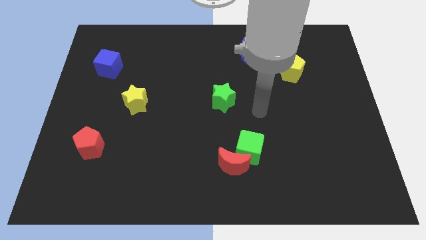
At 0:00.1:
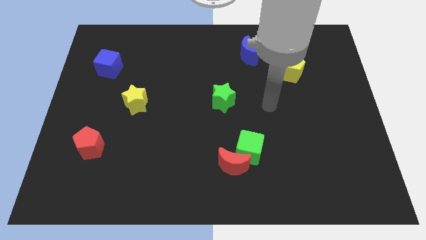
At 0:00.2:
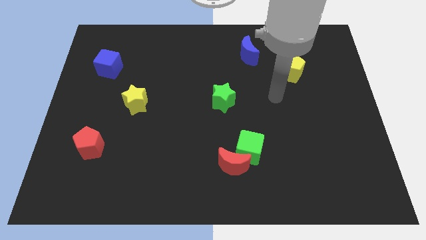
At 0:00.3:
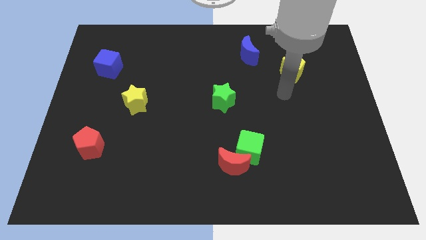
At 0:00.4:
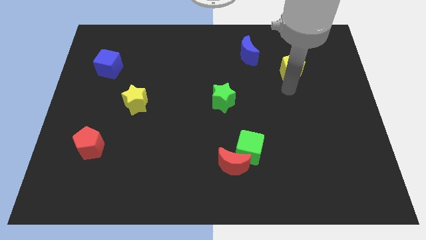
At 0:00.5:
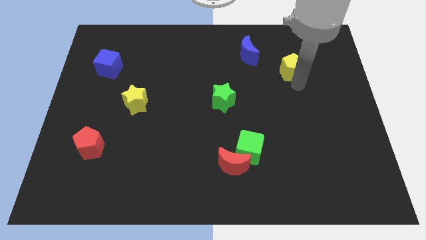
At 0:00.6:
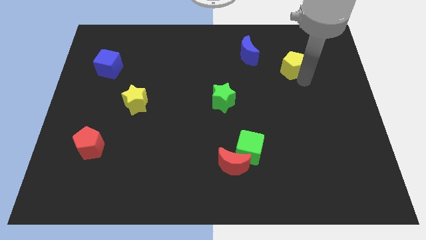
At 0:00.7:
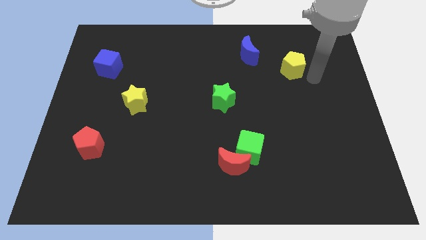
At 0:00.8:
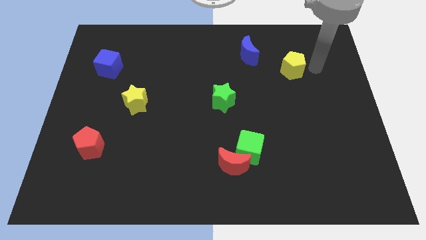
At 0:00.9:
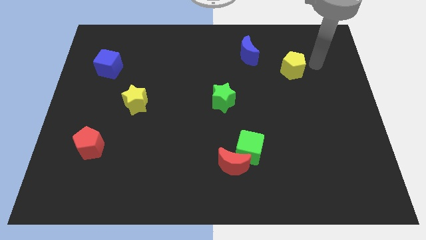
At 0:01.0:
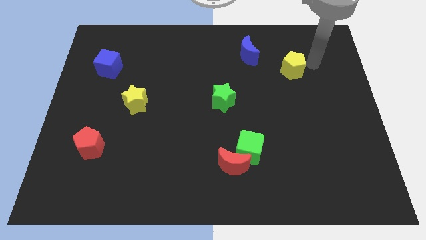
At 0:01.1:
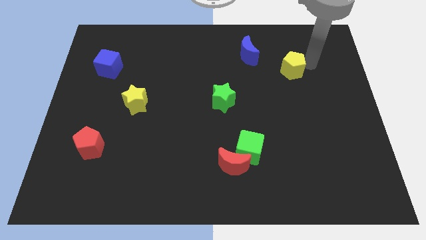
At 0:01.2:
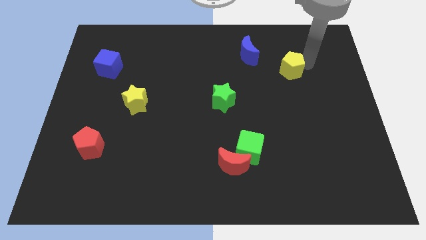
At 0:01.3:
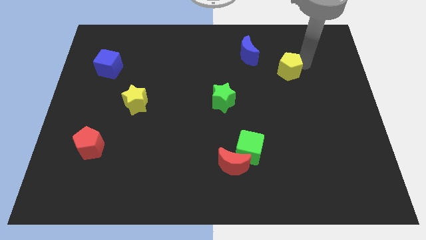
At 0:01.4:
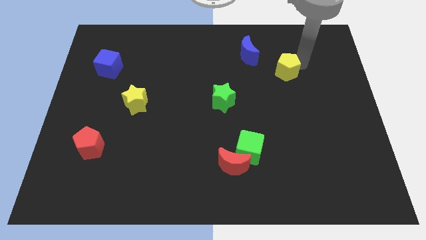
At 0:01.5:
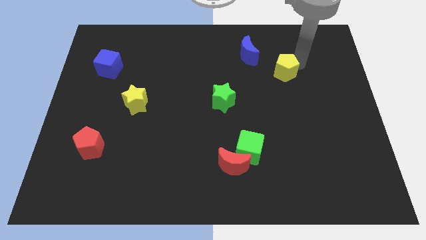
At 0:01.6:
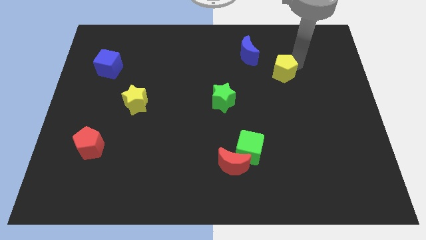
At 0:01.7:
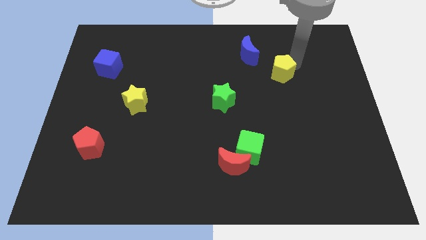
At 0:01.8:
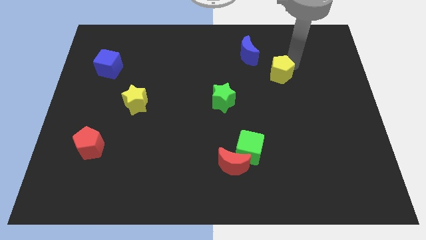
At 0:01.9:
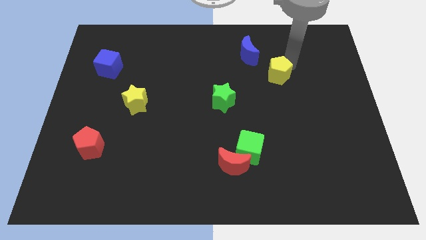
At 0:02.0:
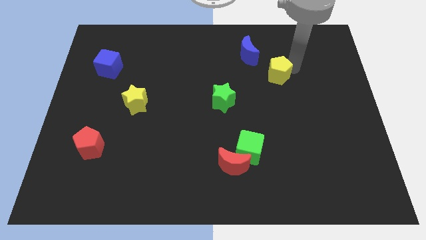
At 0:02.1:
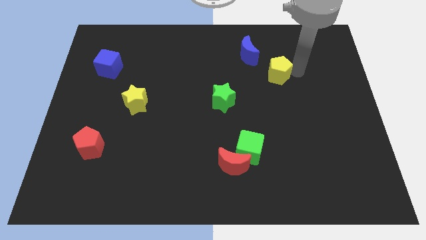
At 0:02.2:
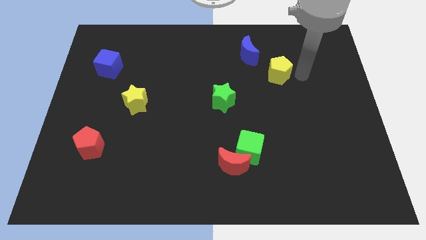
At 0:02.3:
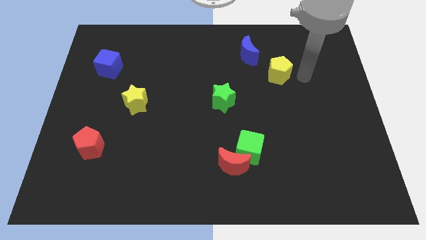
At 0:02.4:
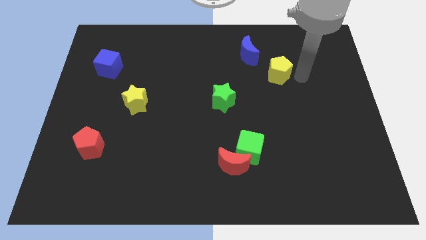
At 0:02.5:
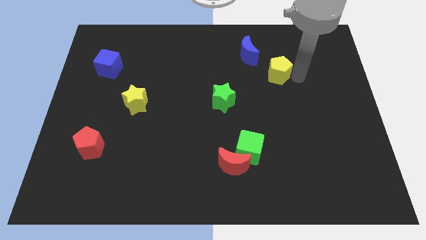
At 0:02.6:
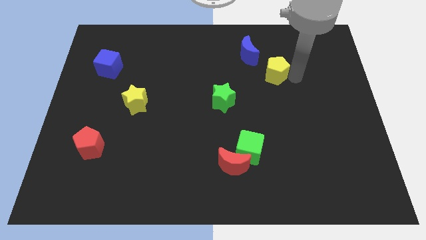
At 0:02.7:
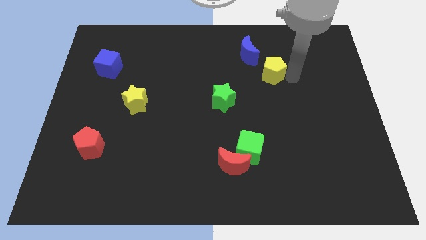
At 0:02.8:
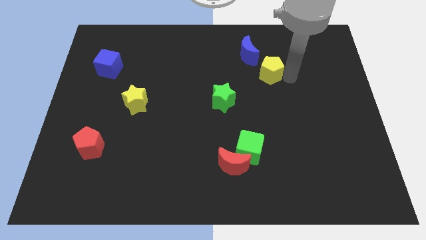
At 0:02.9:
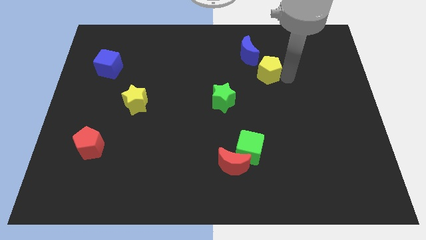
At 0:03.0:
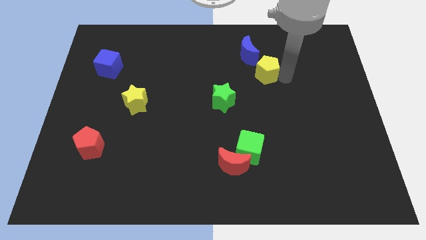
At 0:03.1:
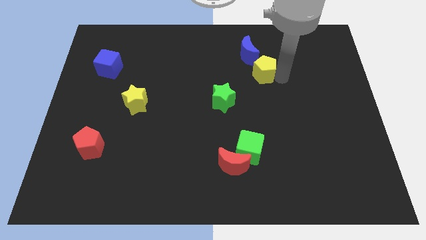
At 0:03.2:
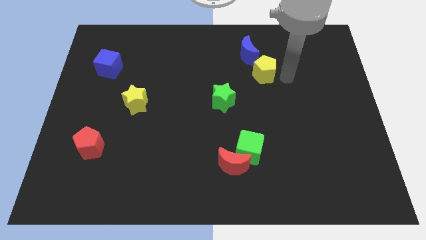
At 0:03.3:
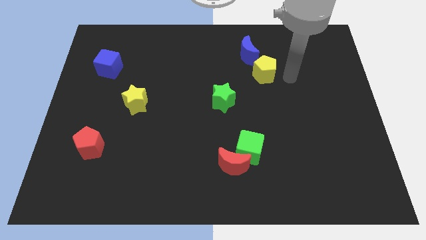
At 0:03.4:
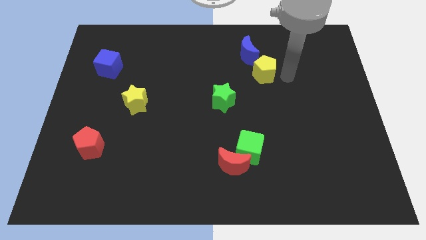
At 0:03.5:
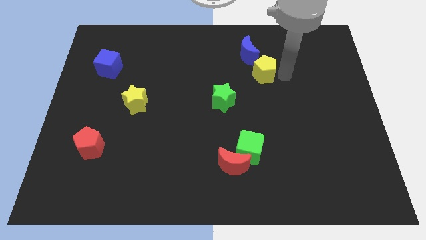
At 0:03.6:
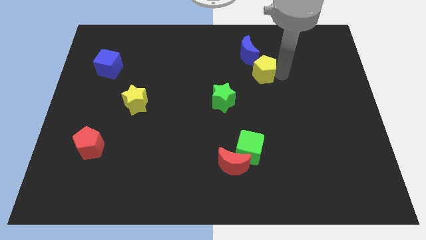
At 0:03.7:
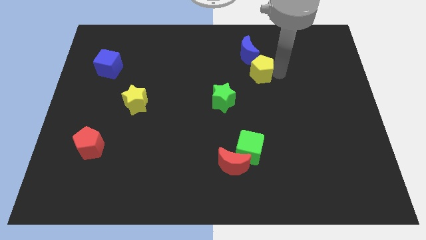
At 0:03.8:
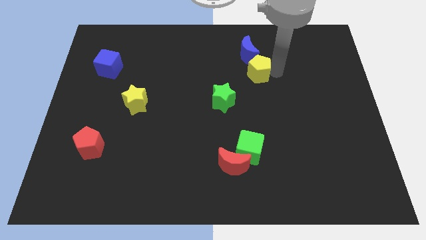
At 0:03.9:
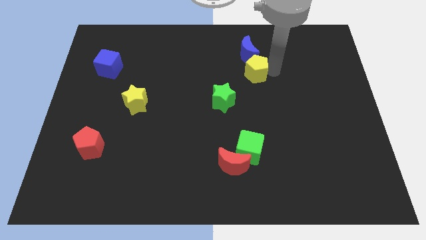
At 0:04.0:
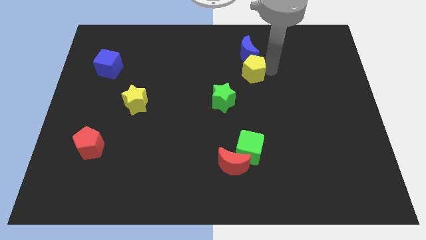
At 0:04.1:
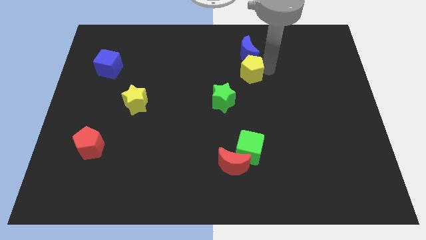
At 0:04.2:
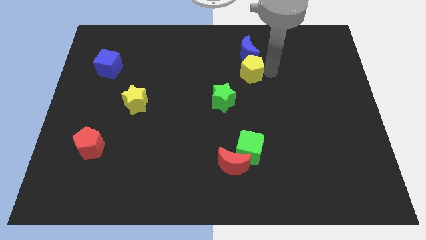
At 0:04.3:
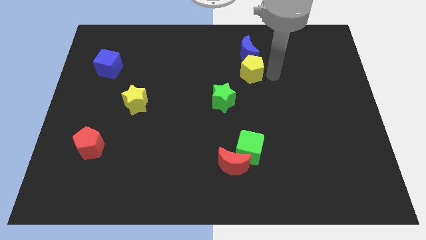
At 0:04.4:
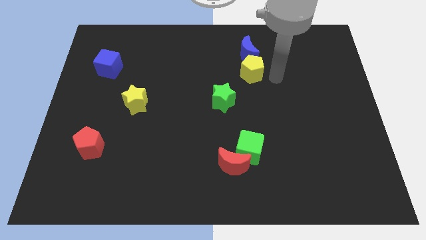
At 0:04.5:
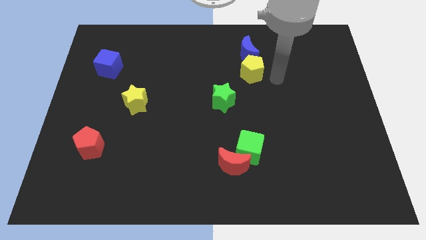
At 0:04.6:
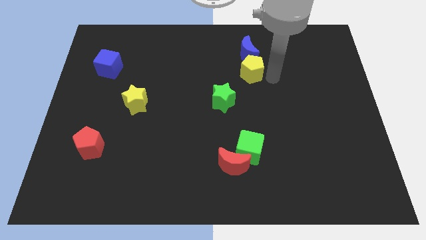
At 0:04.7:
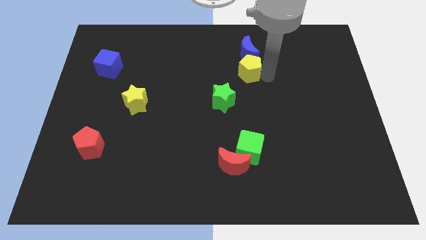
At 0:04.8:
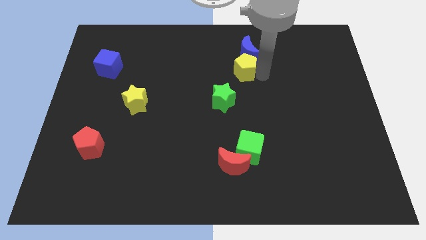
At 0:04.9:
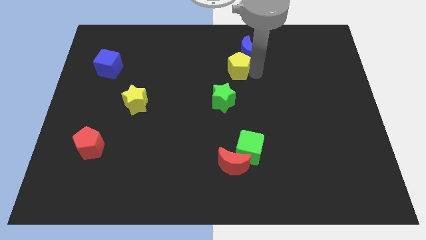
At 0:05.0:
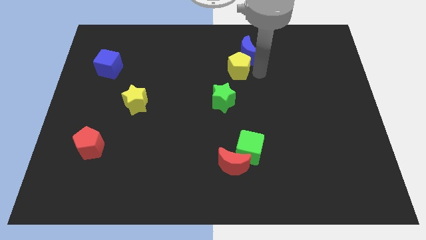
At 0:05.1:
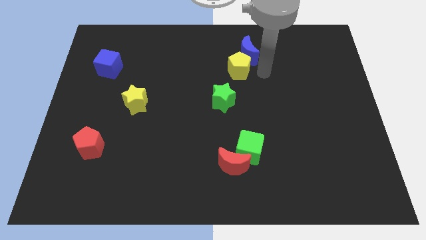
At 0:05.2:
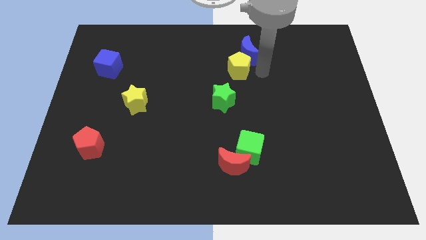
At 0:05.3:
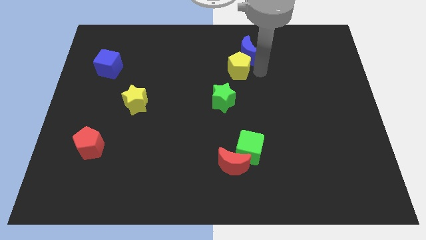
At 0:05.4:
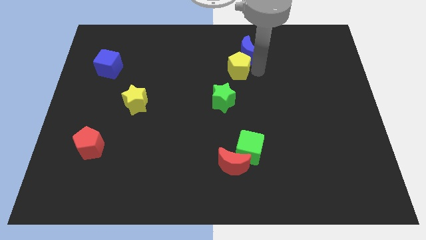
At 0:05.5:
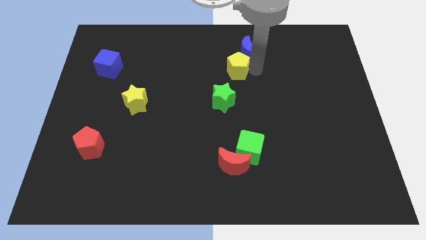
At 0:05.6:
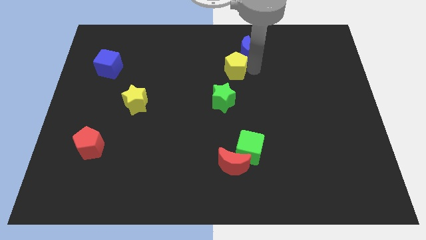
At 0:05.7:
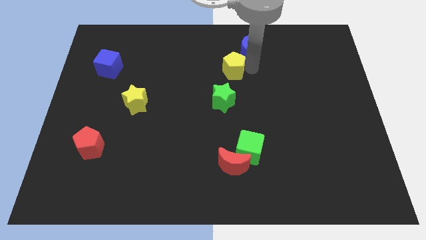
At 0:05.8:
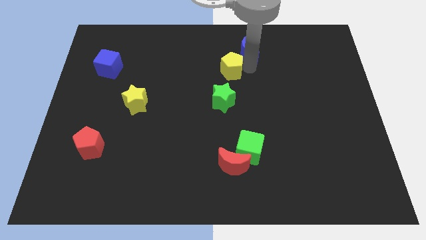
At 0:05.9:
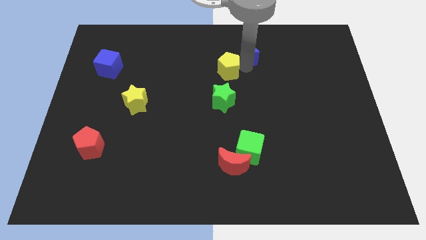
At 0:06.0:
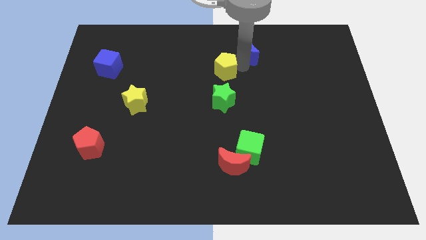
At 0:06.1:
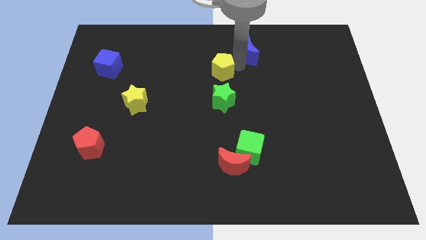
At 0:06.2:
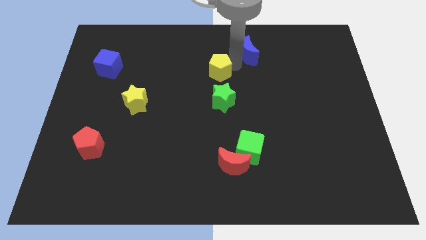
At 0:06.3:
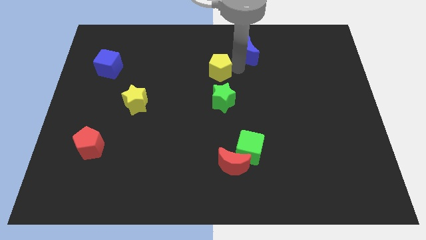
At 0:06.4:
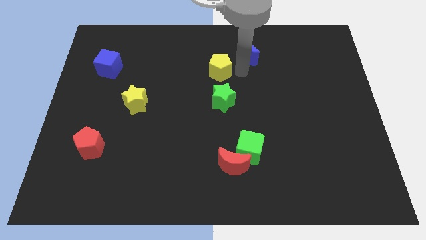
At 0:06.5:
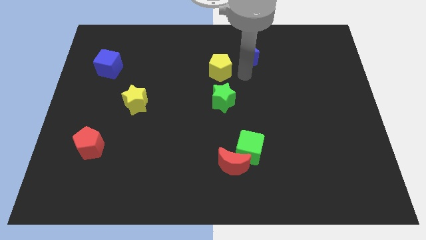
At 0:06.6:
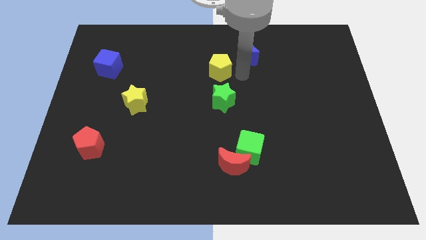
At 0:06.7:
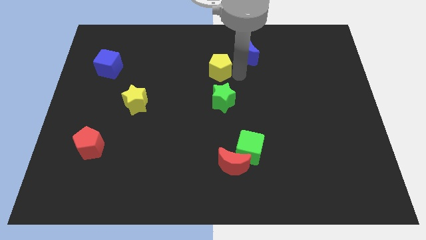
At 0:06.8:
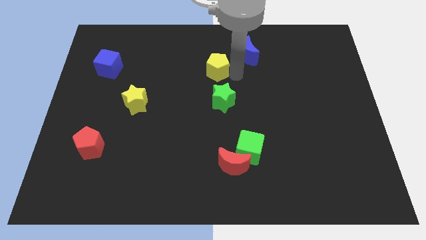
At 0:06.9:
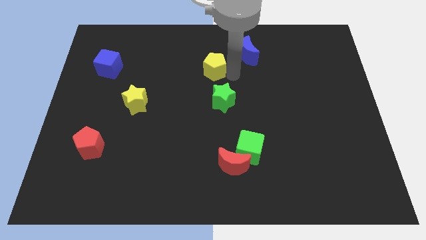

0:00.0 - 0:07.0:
slide the yellow pentagon left

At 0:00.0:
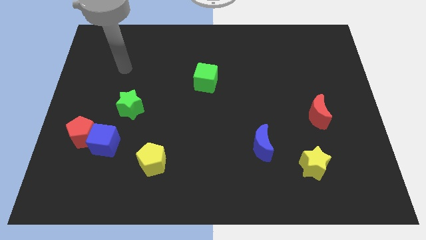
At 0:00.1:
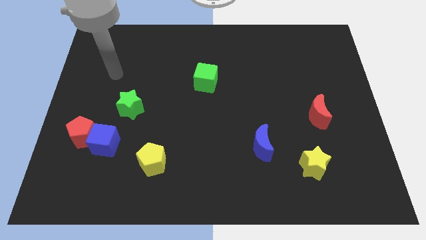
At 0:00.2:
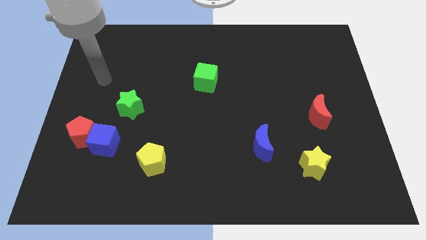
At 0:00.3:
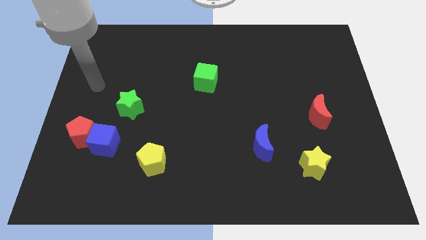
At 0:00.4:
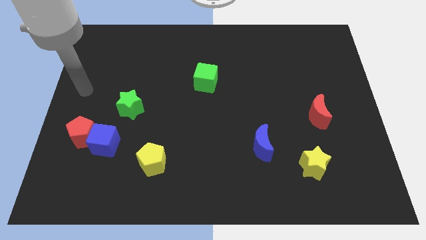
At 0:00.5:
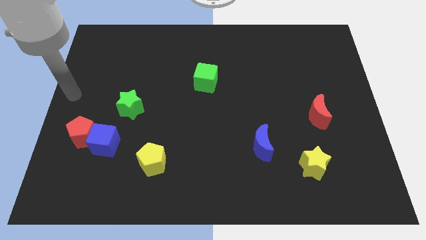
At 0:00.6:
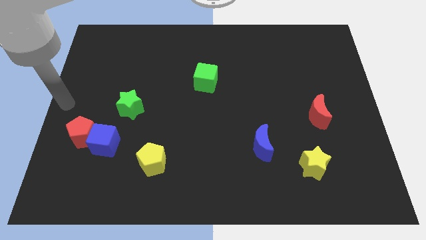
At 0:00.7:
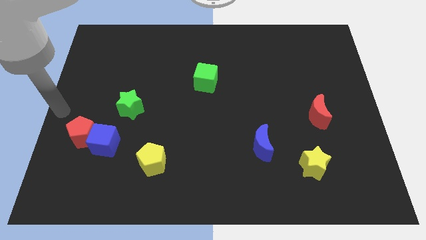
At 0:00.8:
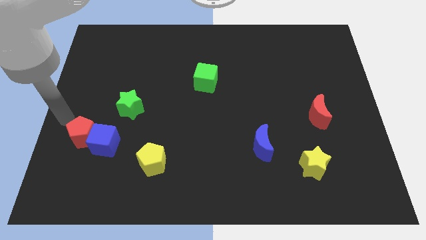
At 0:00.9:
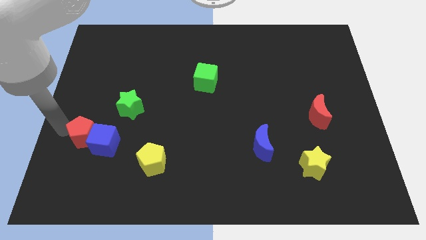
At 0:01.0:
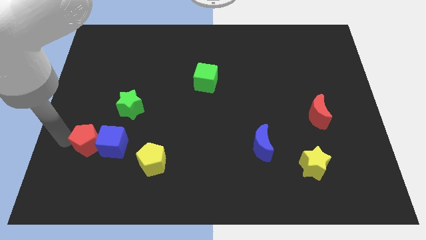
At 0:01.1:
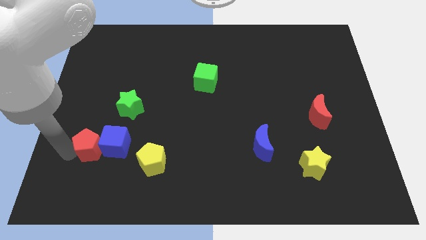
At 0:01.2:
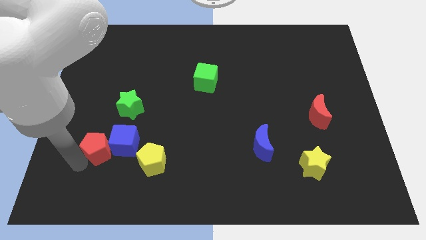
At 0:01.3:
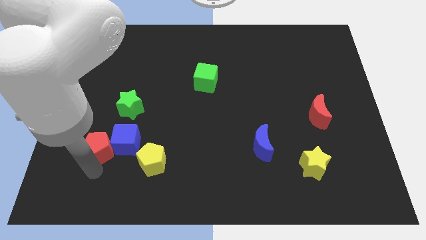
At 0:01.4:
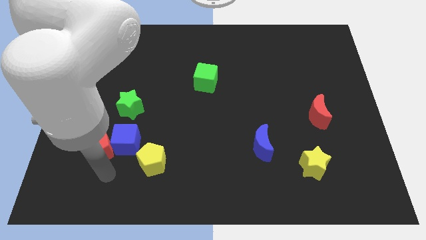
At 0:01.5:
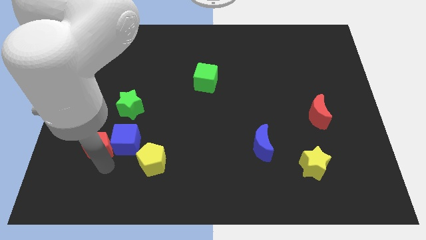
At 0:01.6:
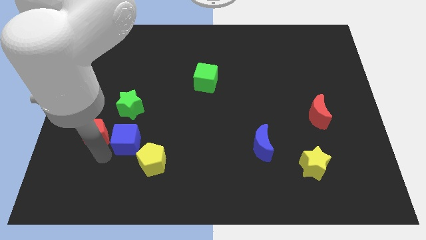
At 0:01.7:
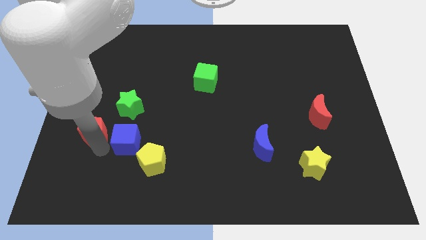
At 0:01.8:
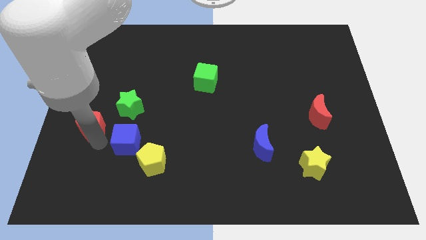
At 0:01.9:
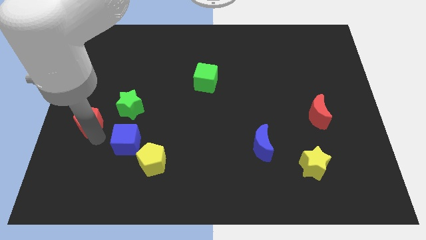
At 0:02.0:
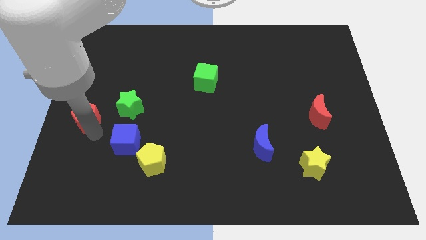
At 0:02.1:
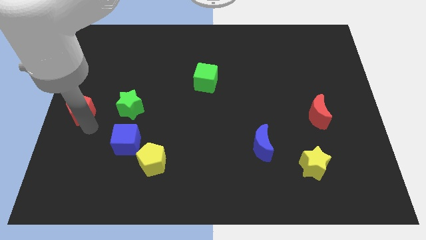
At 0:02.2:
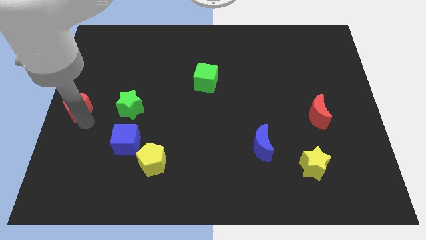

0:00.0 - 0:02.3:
slightly slide the red pentagon up
